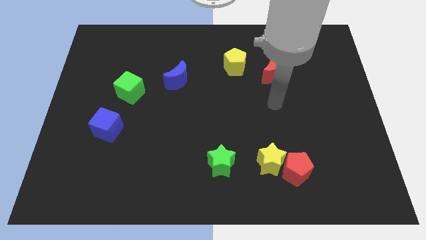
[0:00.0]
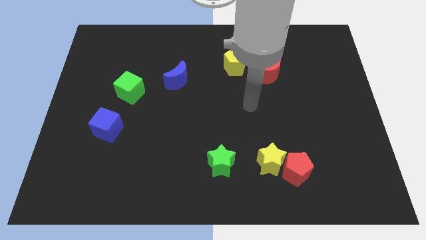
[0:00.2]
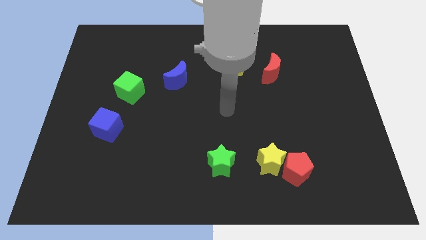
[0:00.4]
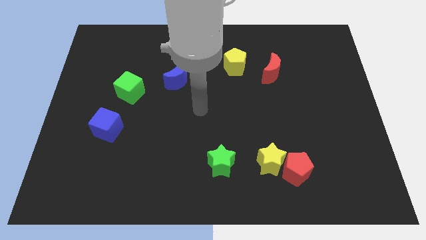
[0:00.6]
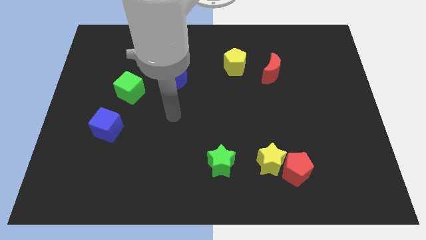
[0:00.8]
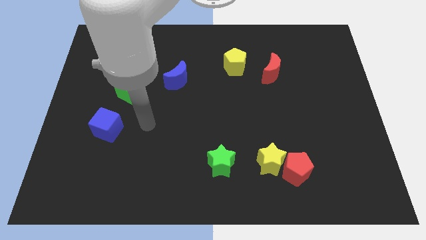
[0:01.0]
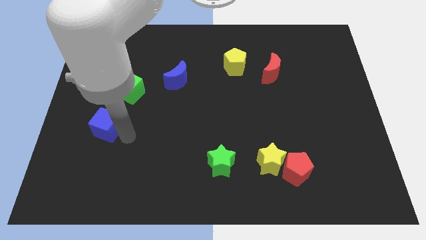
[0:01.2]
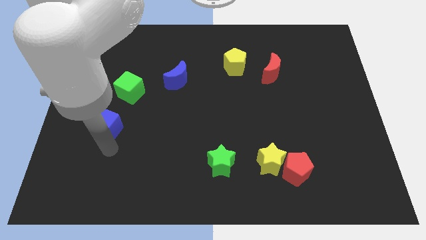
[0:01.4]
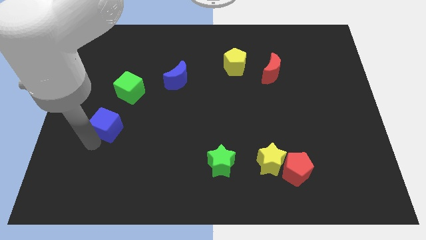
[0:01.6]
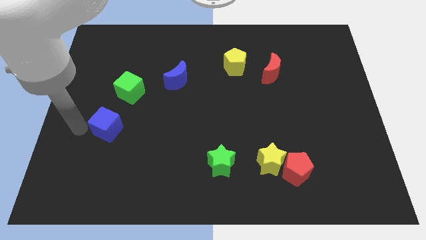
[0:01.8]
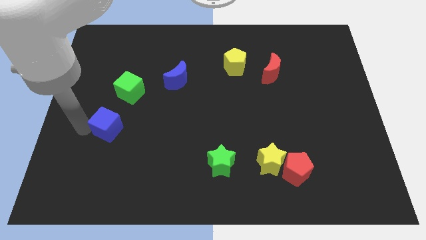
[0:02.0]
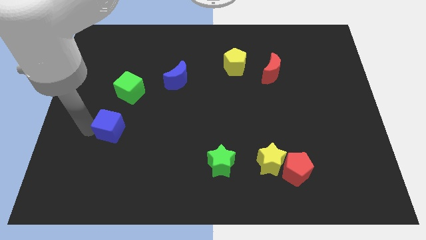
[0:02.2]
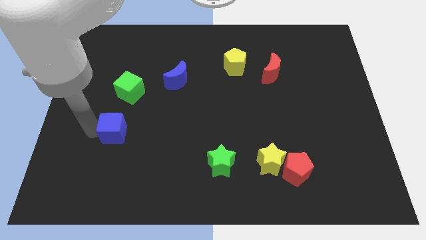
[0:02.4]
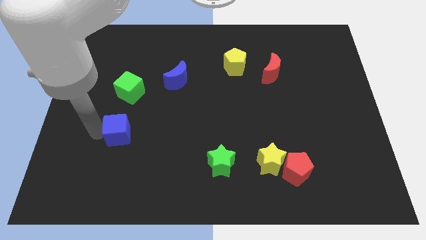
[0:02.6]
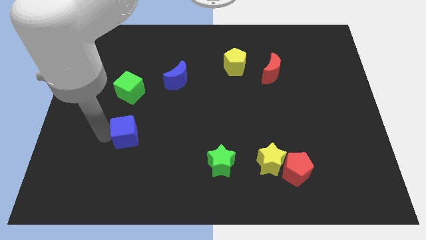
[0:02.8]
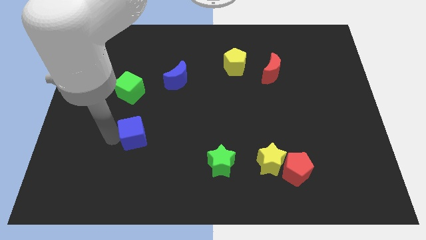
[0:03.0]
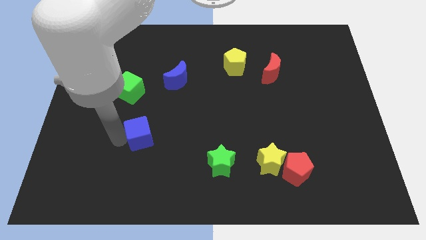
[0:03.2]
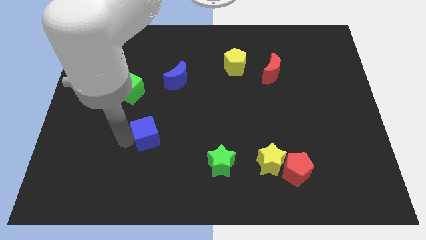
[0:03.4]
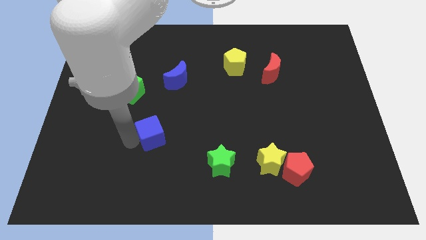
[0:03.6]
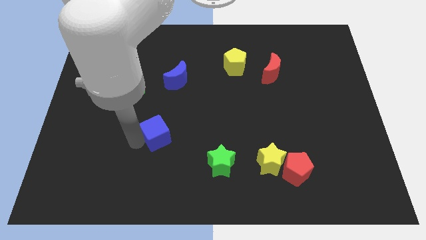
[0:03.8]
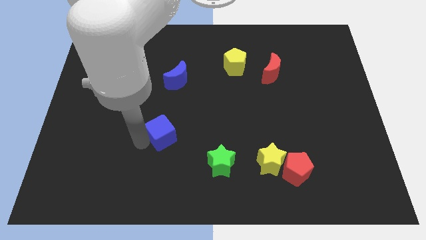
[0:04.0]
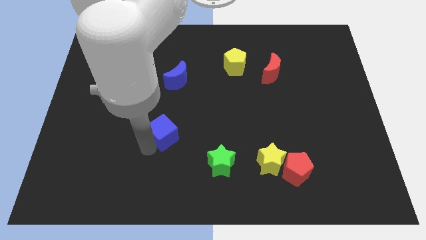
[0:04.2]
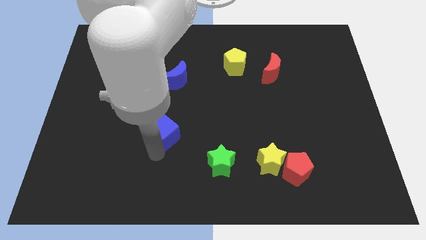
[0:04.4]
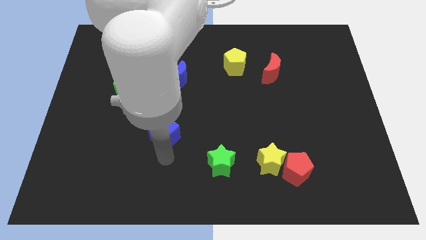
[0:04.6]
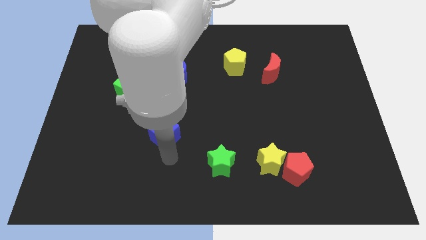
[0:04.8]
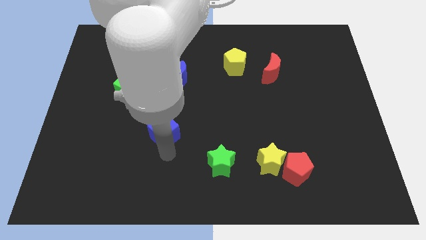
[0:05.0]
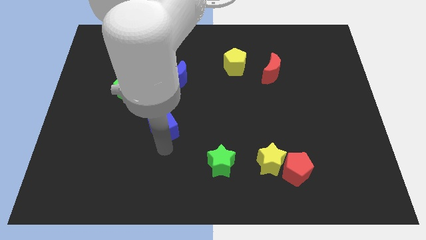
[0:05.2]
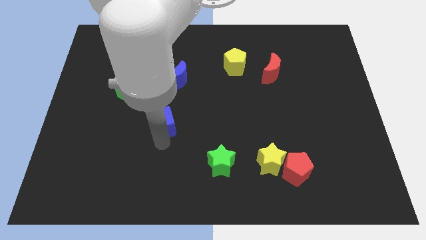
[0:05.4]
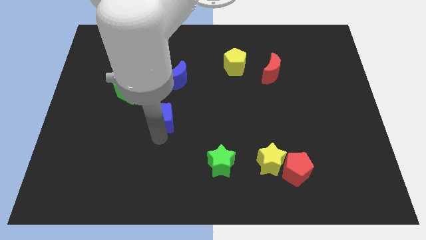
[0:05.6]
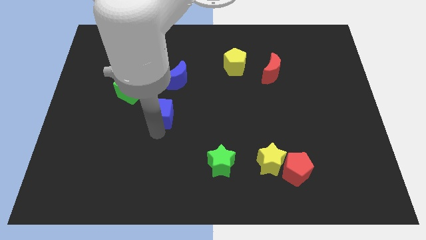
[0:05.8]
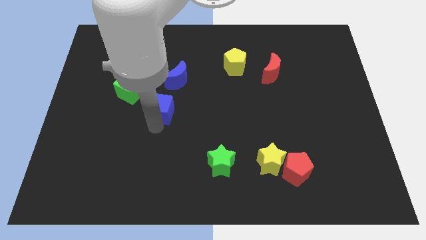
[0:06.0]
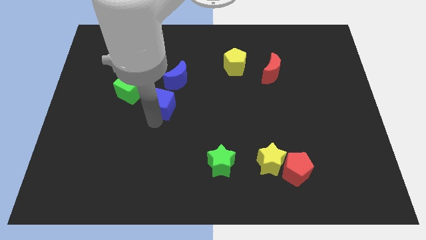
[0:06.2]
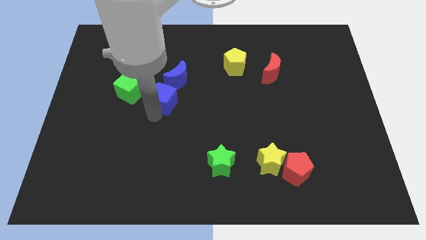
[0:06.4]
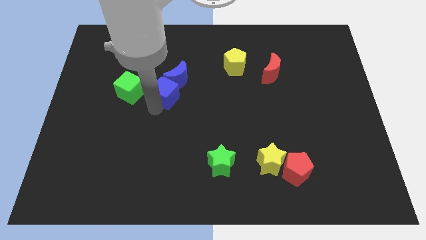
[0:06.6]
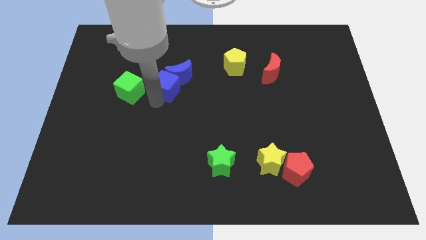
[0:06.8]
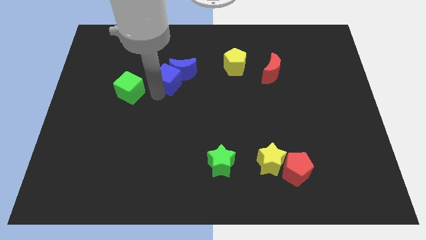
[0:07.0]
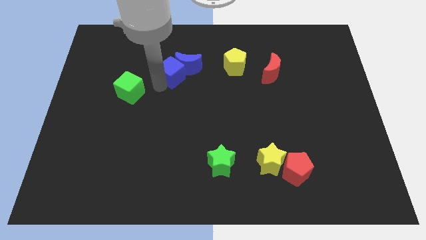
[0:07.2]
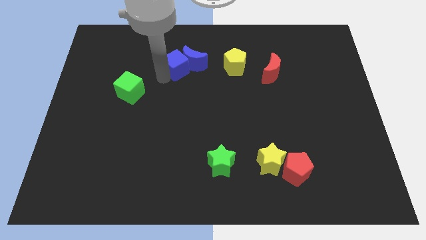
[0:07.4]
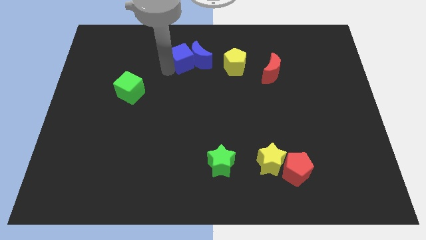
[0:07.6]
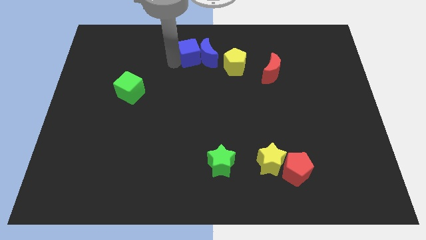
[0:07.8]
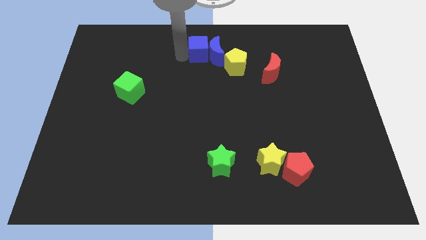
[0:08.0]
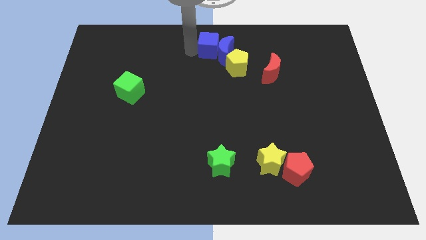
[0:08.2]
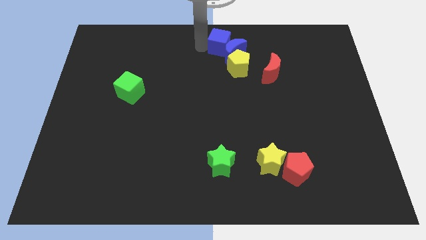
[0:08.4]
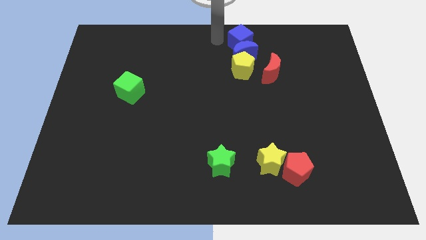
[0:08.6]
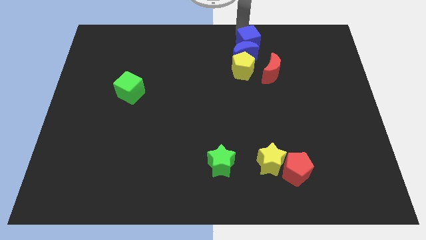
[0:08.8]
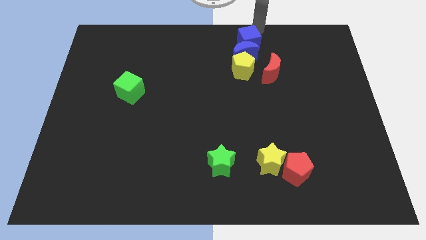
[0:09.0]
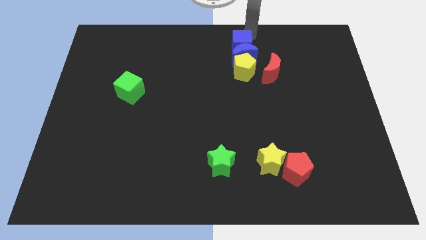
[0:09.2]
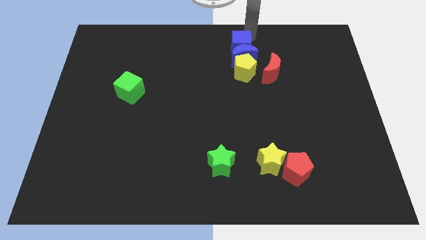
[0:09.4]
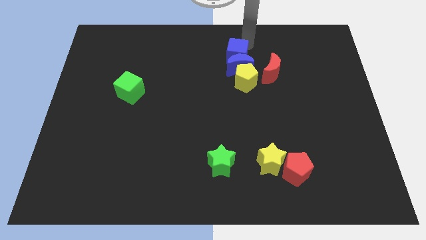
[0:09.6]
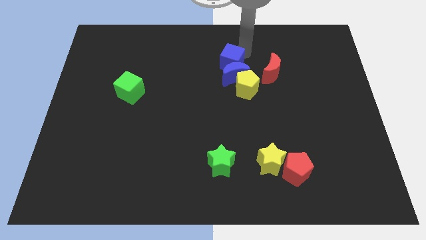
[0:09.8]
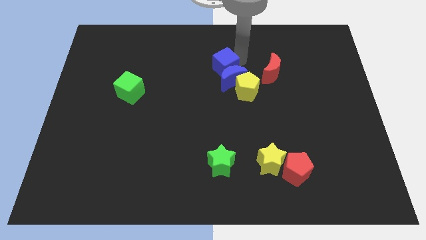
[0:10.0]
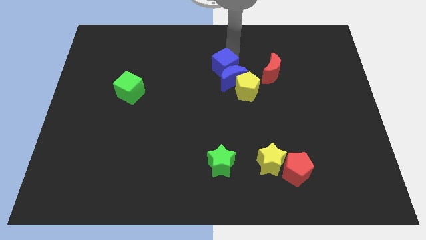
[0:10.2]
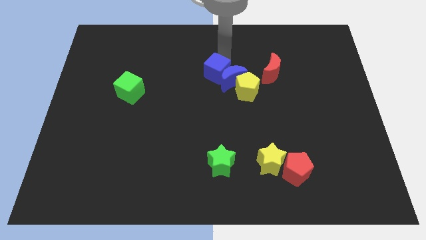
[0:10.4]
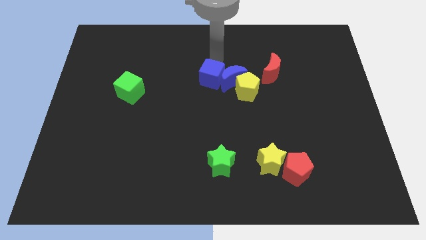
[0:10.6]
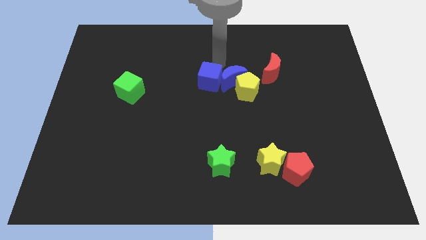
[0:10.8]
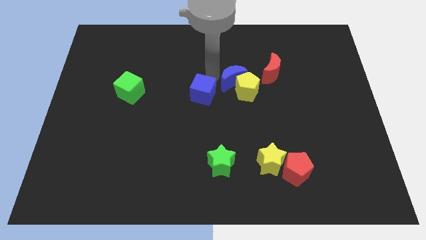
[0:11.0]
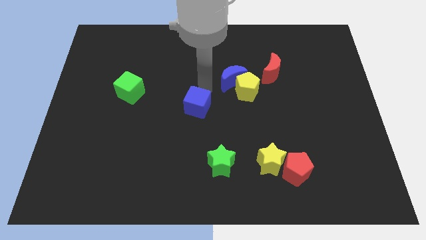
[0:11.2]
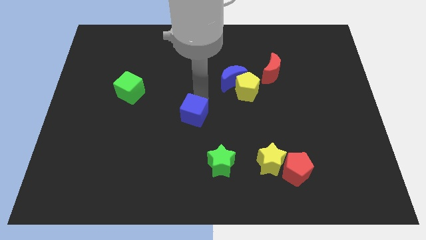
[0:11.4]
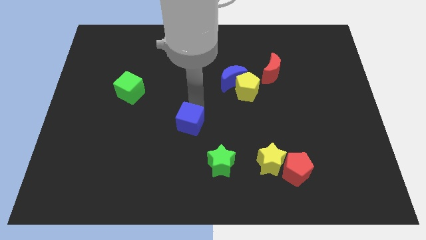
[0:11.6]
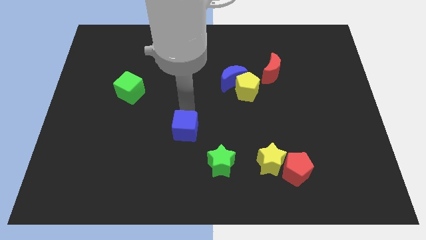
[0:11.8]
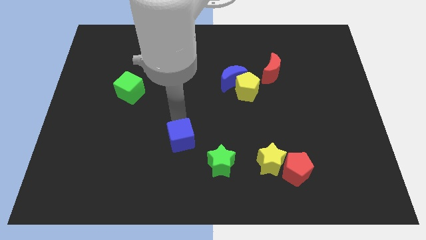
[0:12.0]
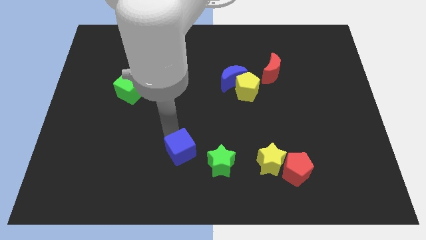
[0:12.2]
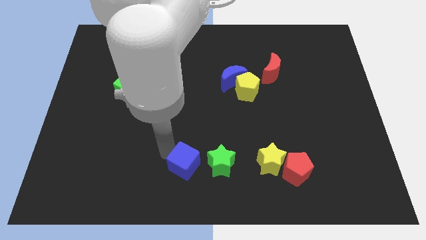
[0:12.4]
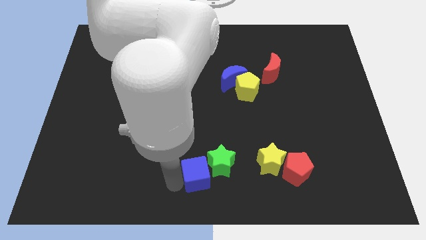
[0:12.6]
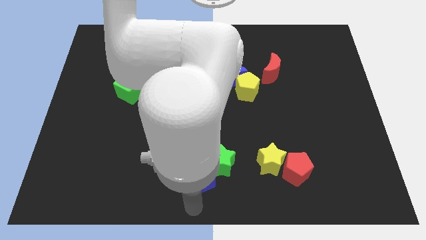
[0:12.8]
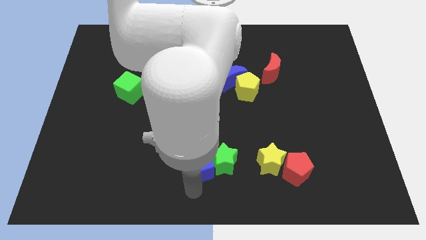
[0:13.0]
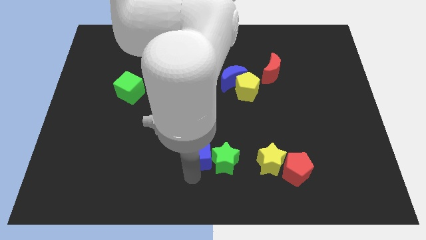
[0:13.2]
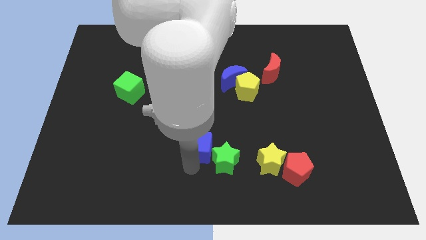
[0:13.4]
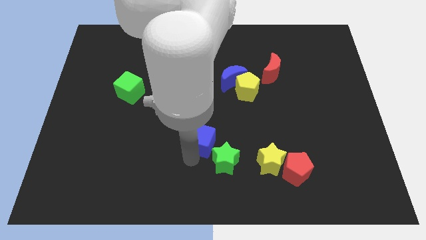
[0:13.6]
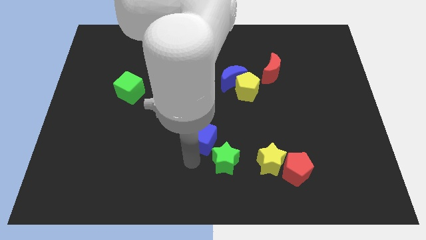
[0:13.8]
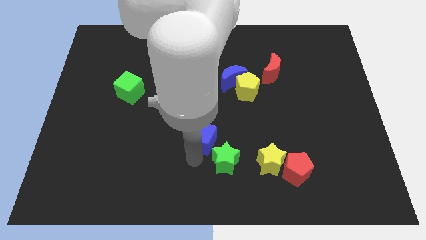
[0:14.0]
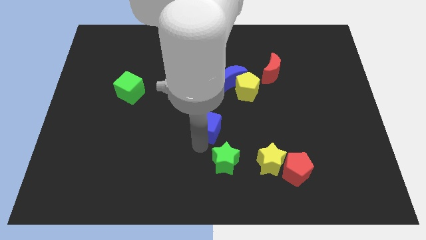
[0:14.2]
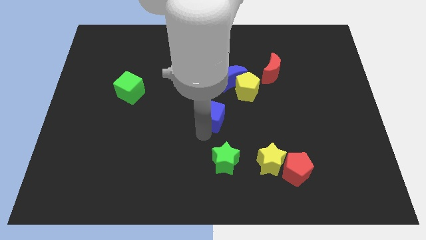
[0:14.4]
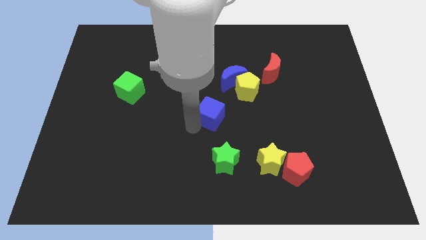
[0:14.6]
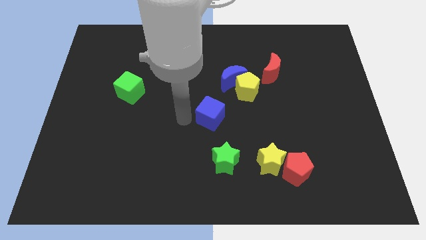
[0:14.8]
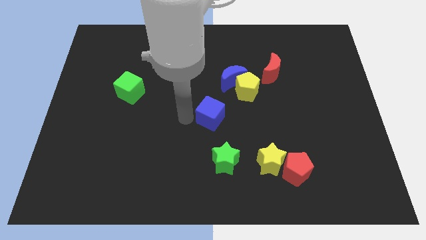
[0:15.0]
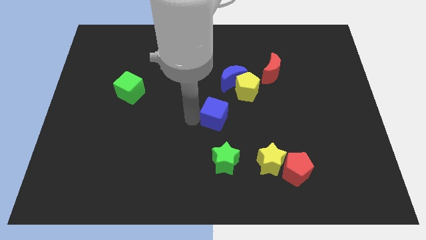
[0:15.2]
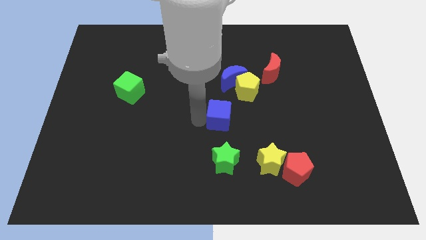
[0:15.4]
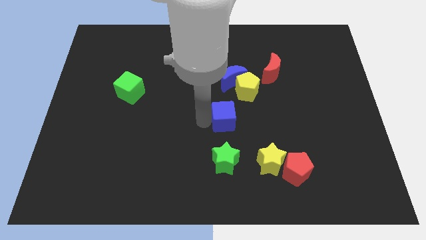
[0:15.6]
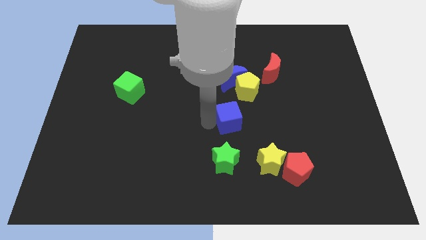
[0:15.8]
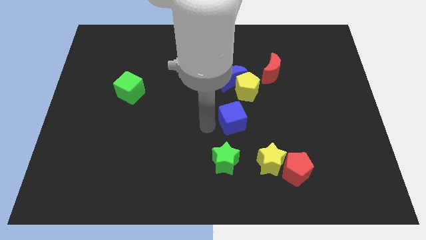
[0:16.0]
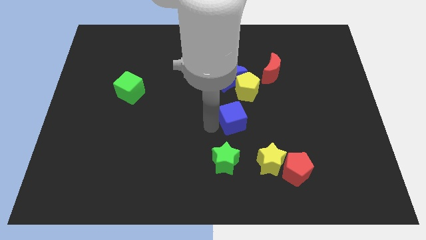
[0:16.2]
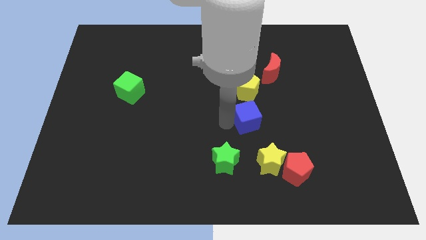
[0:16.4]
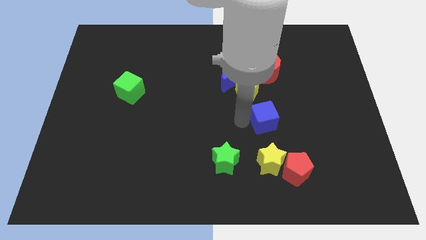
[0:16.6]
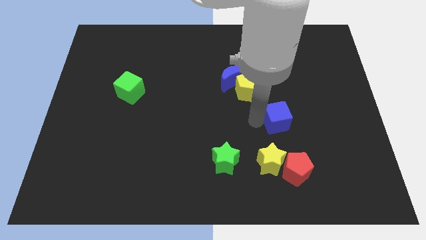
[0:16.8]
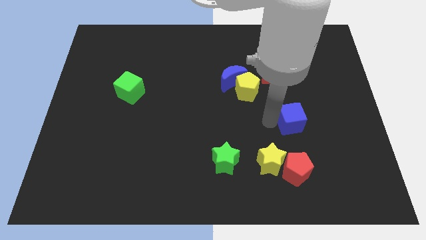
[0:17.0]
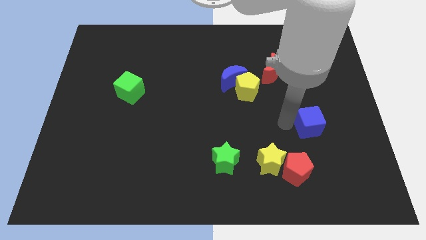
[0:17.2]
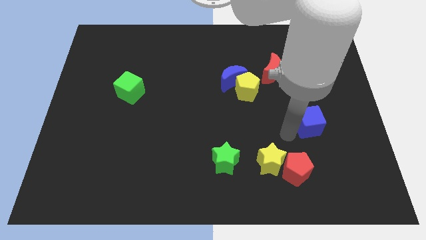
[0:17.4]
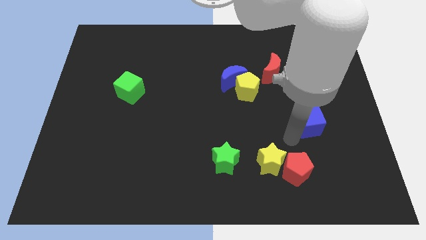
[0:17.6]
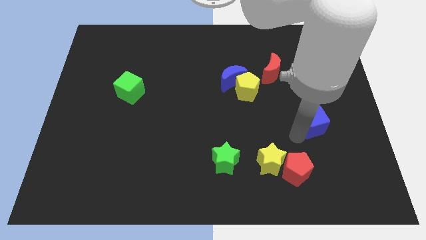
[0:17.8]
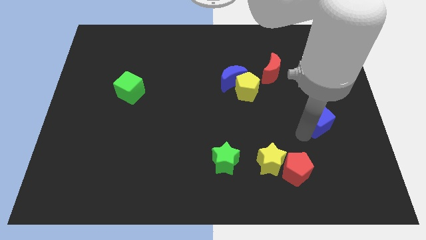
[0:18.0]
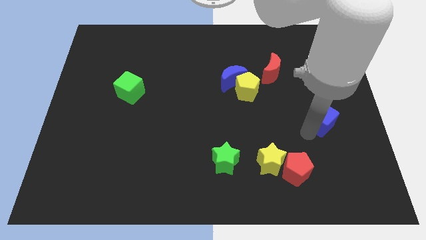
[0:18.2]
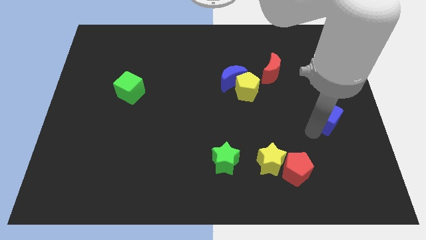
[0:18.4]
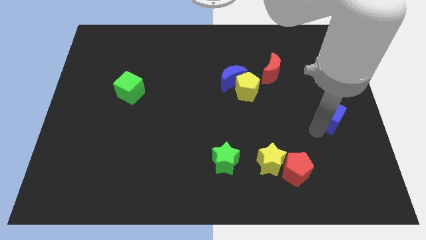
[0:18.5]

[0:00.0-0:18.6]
put the blue cube to the right side
